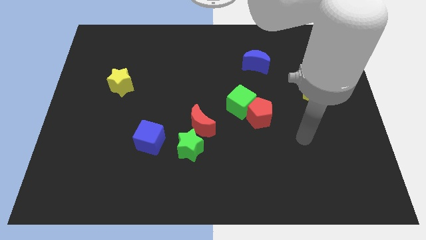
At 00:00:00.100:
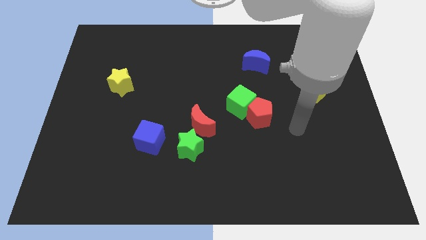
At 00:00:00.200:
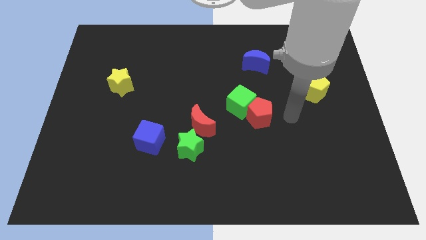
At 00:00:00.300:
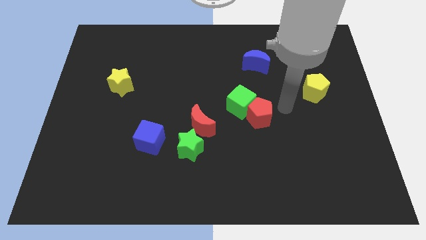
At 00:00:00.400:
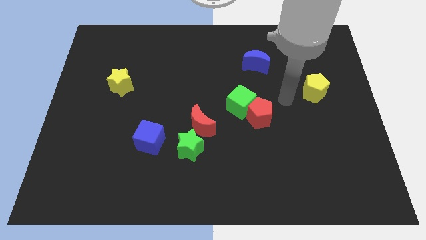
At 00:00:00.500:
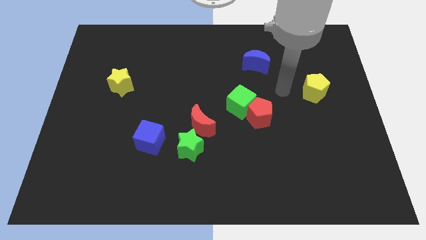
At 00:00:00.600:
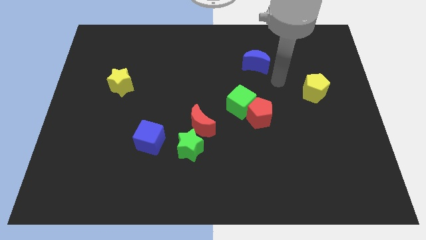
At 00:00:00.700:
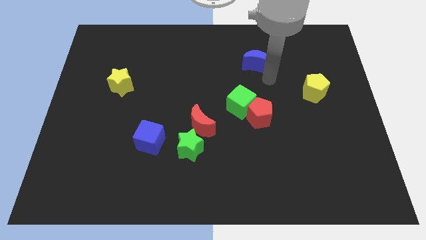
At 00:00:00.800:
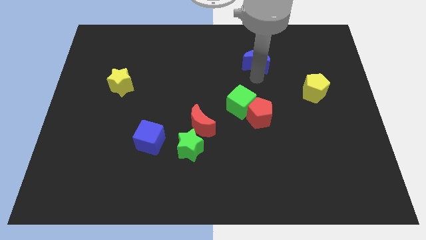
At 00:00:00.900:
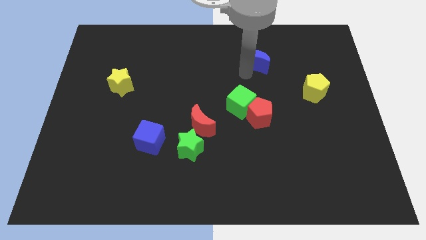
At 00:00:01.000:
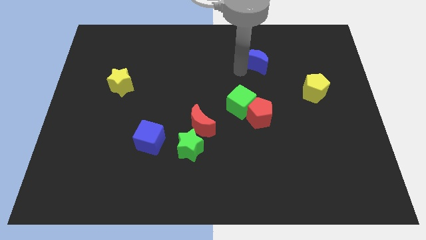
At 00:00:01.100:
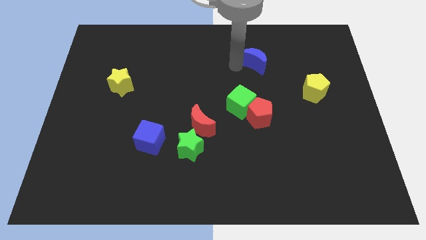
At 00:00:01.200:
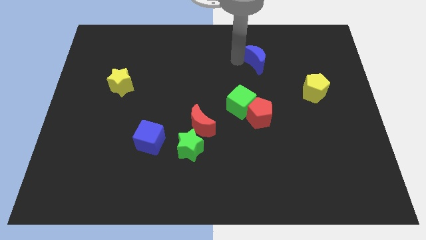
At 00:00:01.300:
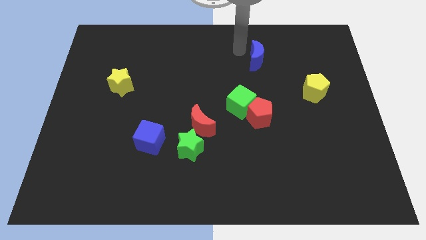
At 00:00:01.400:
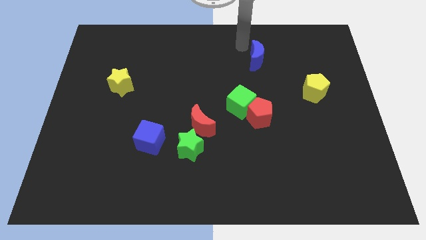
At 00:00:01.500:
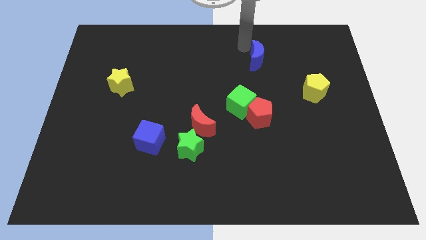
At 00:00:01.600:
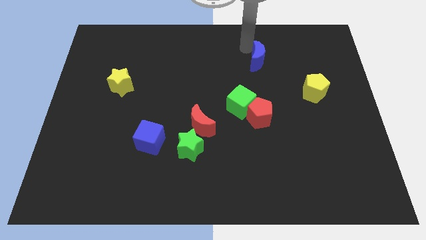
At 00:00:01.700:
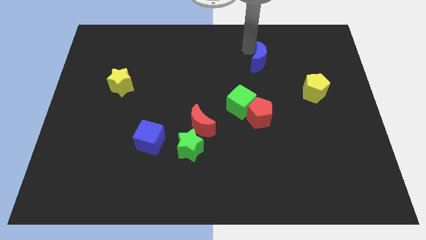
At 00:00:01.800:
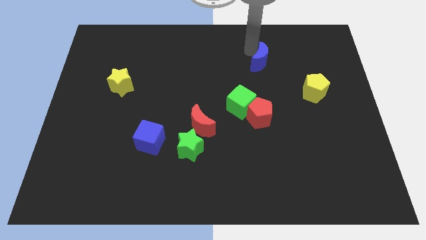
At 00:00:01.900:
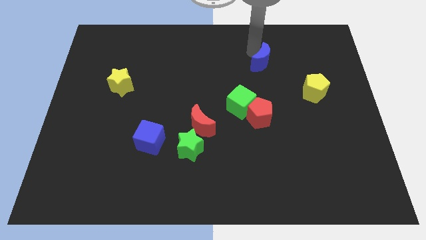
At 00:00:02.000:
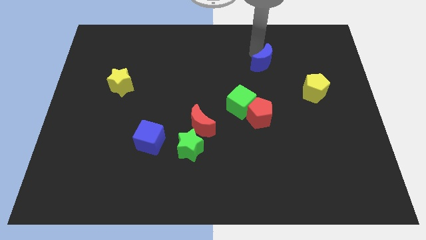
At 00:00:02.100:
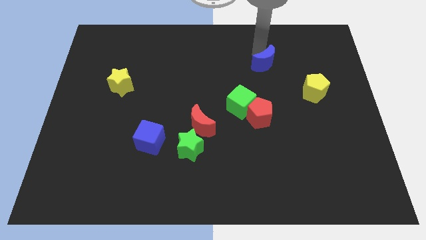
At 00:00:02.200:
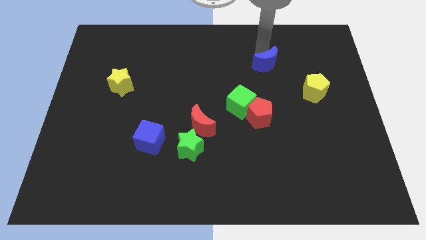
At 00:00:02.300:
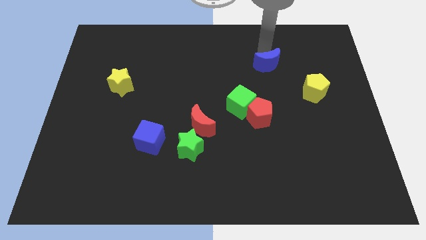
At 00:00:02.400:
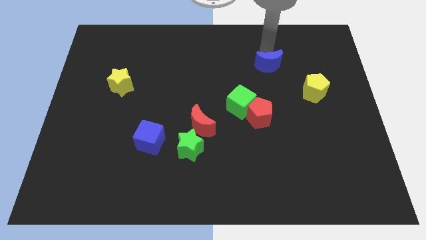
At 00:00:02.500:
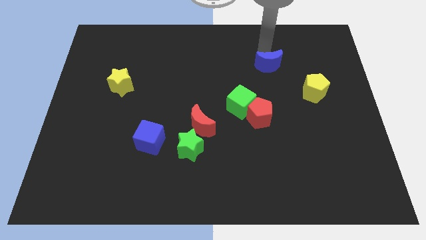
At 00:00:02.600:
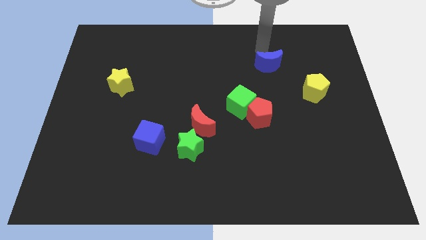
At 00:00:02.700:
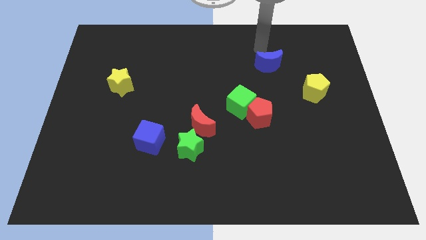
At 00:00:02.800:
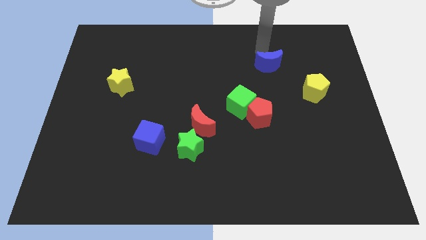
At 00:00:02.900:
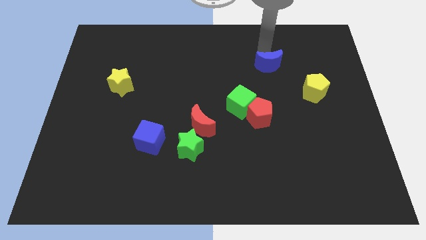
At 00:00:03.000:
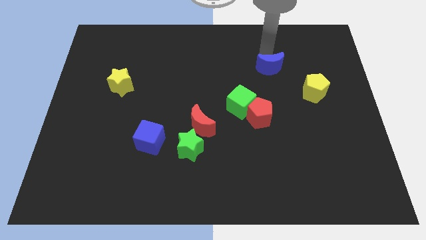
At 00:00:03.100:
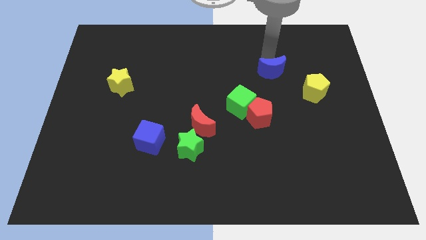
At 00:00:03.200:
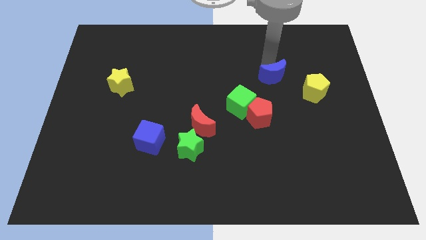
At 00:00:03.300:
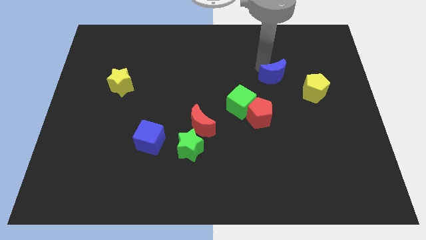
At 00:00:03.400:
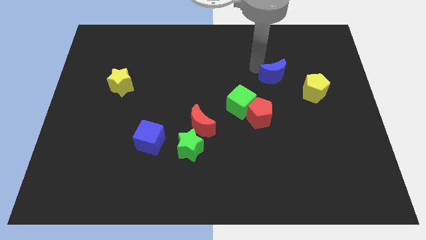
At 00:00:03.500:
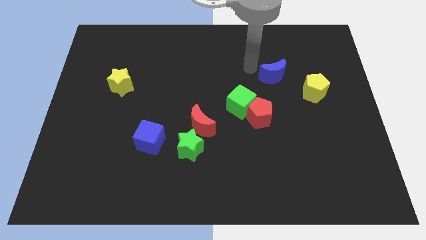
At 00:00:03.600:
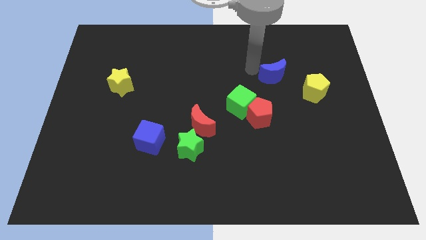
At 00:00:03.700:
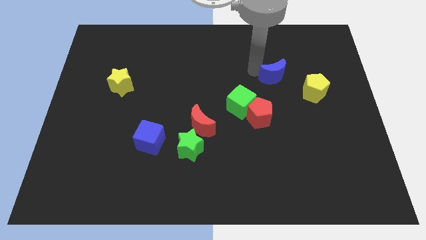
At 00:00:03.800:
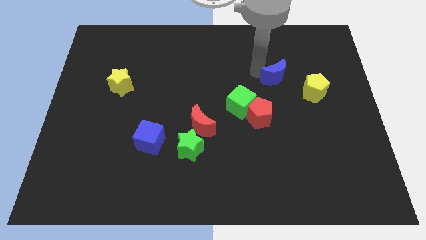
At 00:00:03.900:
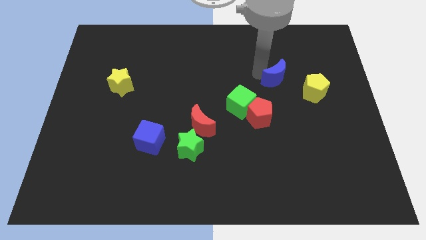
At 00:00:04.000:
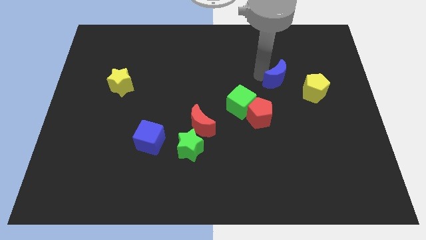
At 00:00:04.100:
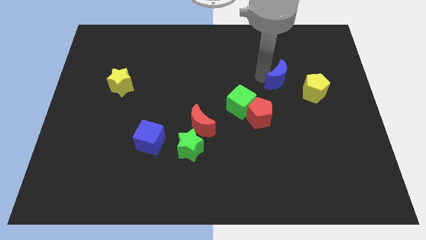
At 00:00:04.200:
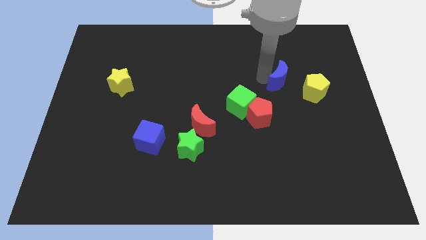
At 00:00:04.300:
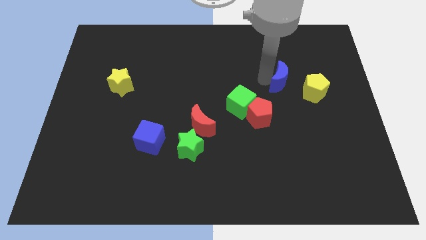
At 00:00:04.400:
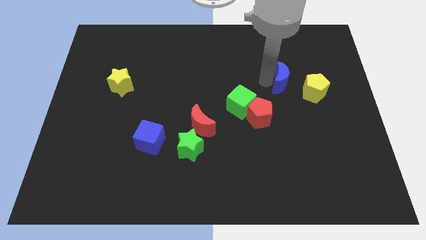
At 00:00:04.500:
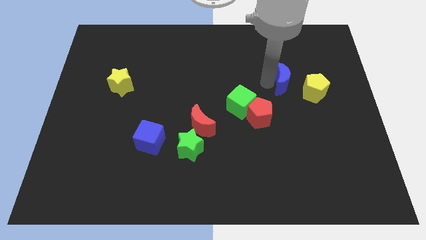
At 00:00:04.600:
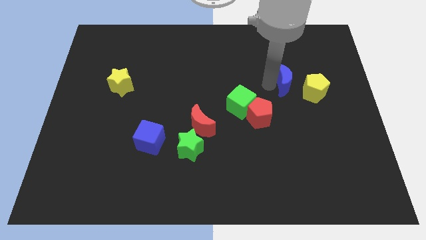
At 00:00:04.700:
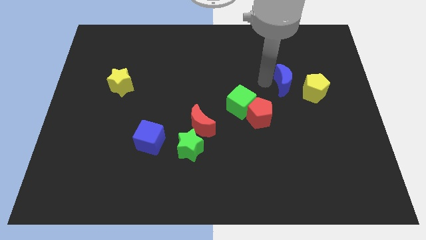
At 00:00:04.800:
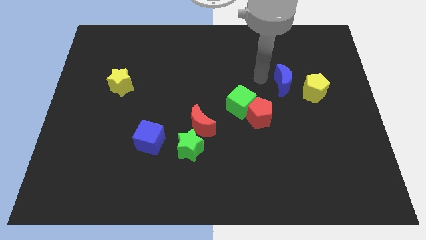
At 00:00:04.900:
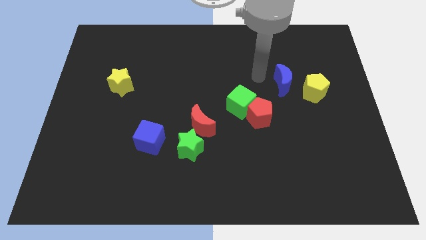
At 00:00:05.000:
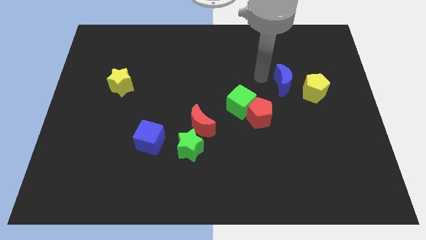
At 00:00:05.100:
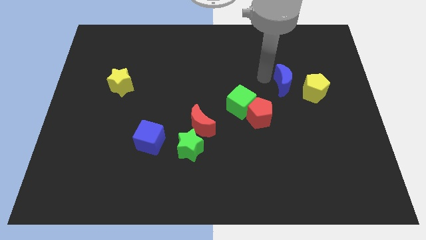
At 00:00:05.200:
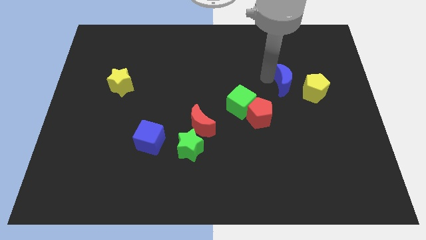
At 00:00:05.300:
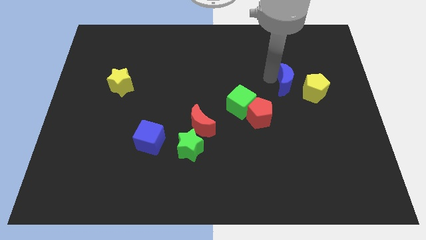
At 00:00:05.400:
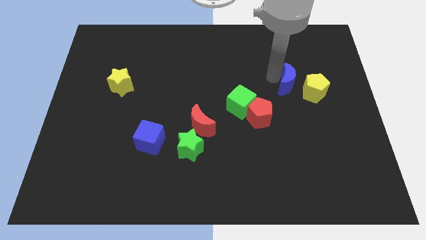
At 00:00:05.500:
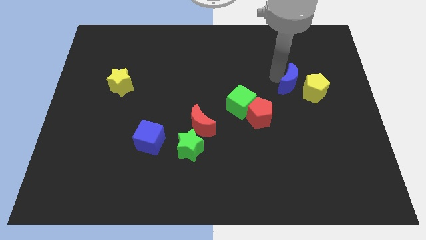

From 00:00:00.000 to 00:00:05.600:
slide the blue moon next to the yellow pentagon

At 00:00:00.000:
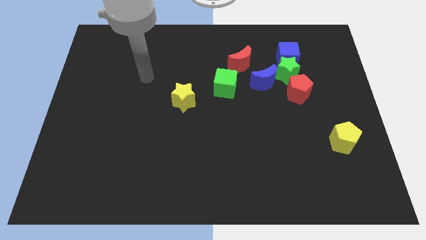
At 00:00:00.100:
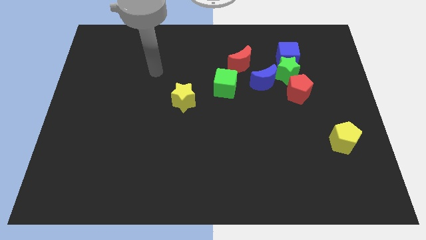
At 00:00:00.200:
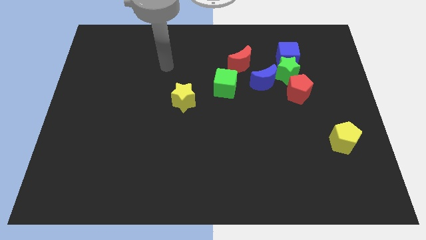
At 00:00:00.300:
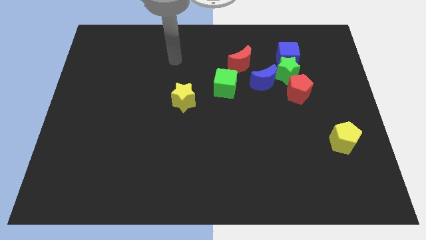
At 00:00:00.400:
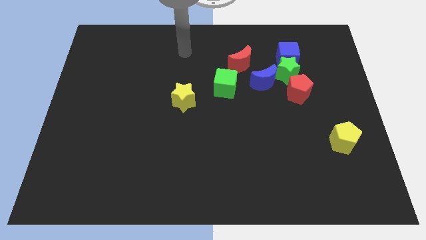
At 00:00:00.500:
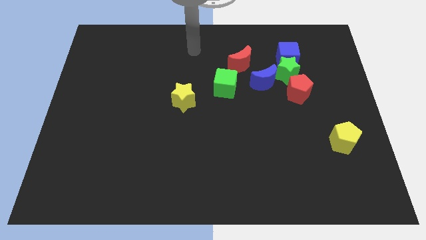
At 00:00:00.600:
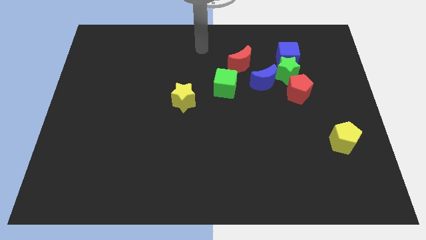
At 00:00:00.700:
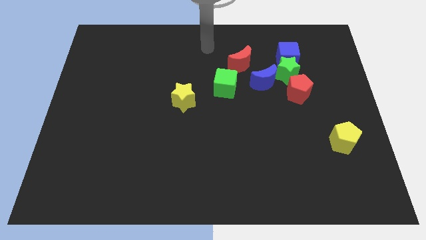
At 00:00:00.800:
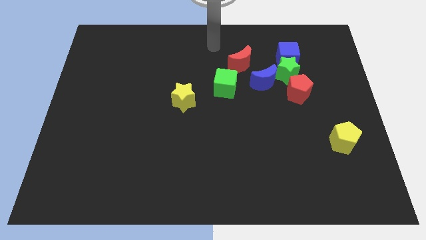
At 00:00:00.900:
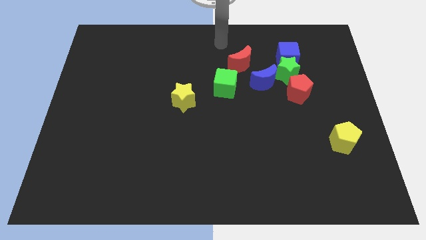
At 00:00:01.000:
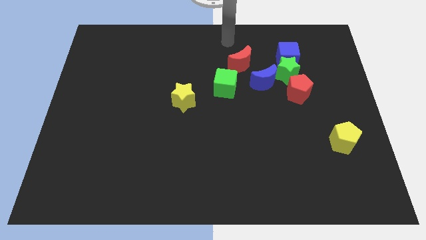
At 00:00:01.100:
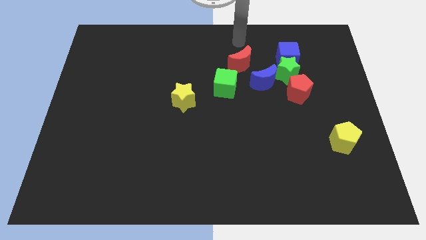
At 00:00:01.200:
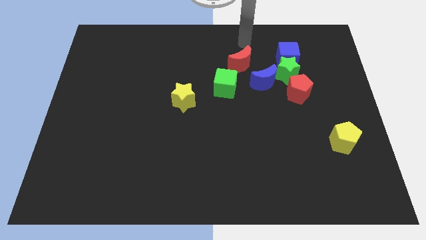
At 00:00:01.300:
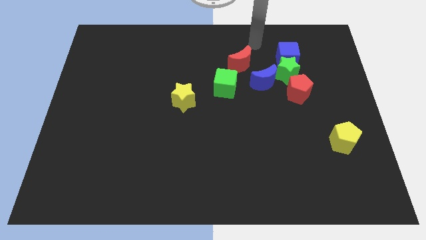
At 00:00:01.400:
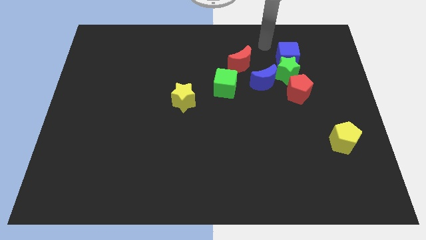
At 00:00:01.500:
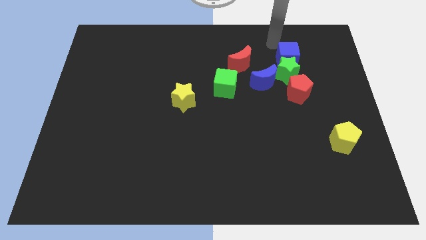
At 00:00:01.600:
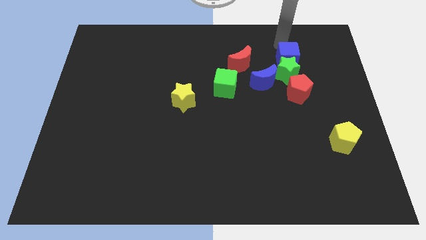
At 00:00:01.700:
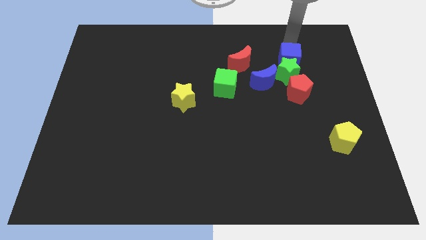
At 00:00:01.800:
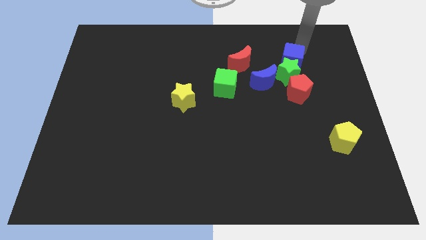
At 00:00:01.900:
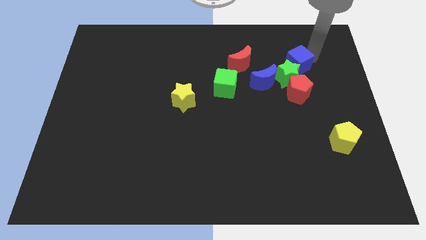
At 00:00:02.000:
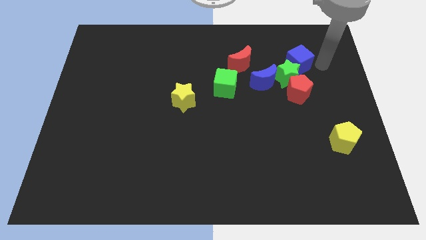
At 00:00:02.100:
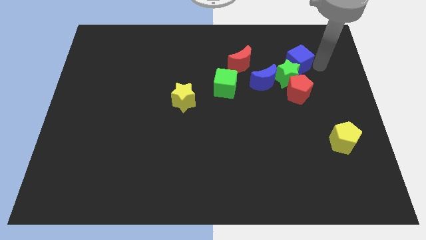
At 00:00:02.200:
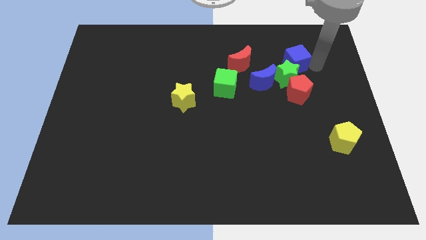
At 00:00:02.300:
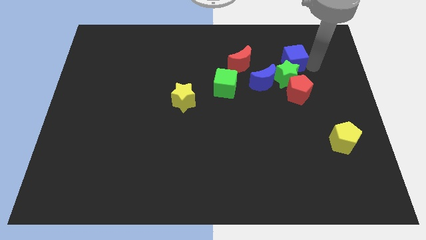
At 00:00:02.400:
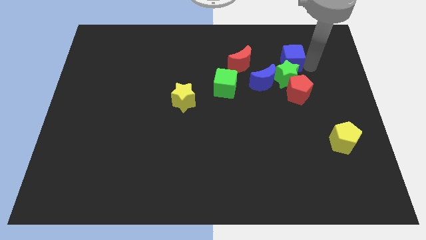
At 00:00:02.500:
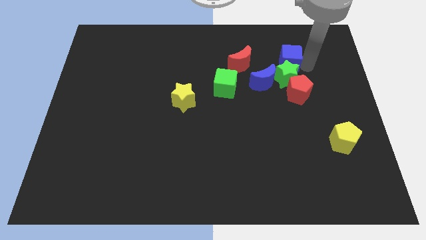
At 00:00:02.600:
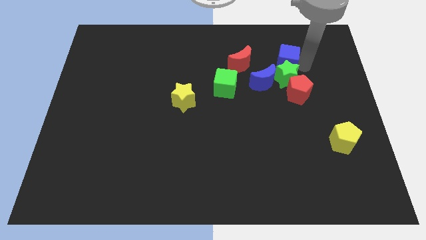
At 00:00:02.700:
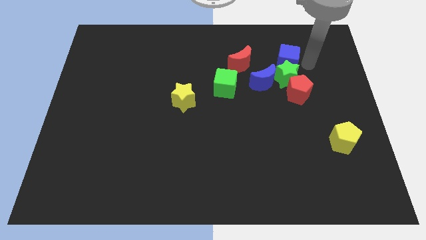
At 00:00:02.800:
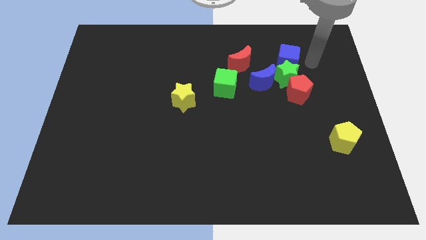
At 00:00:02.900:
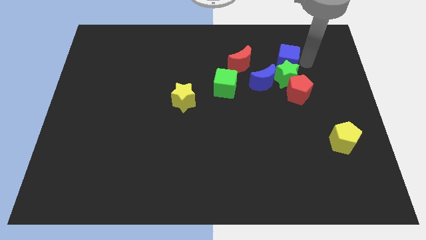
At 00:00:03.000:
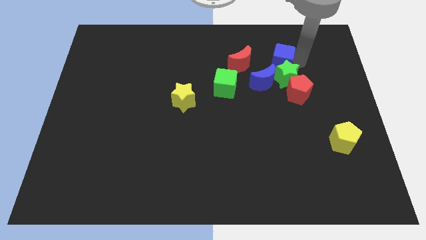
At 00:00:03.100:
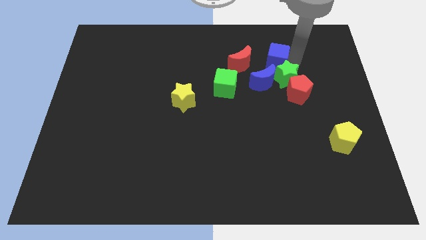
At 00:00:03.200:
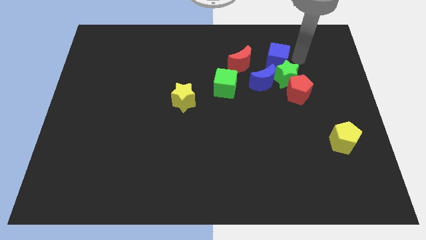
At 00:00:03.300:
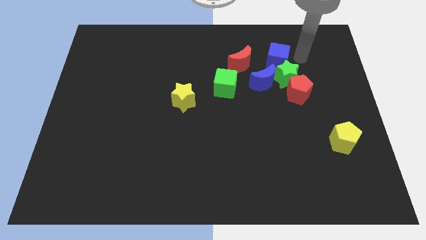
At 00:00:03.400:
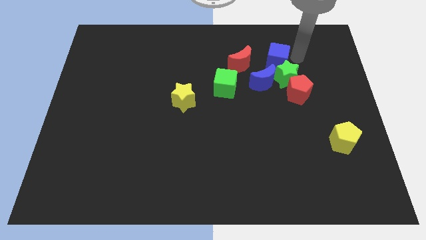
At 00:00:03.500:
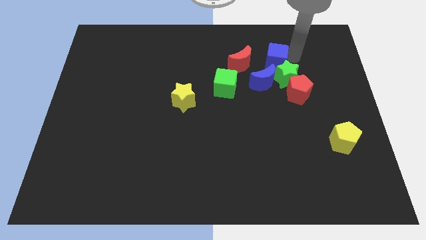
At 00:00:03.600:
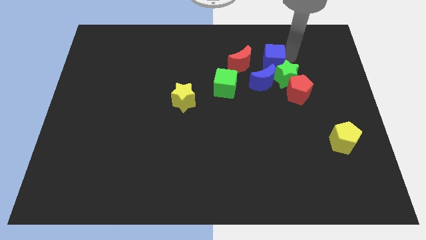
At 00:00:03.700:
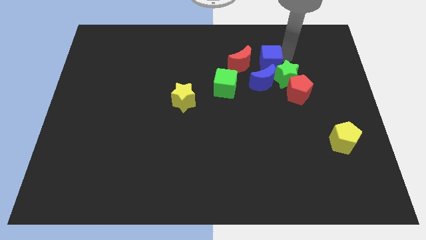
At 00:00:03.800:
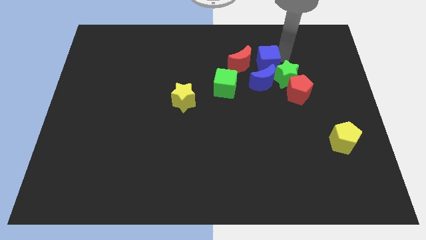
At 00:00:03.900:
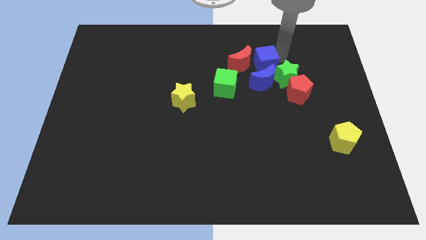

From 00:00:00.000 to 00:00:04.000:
move the blue cube next to the red moon
